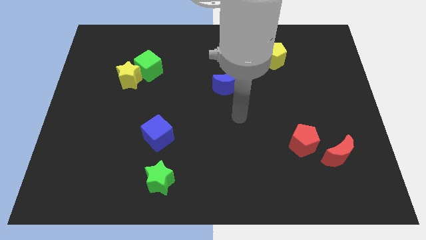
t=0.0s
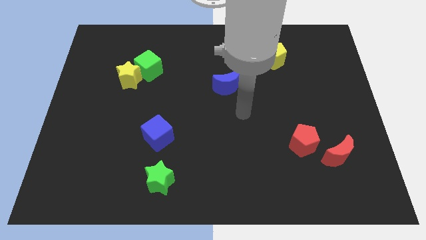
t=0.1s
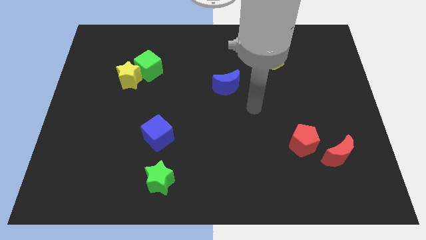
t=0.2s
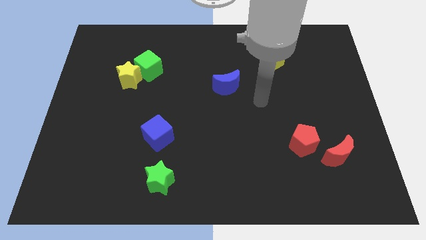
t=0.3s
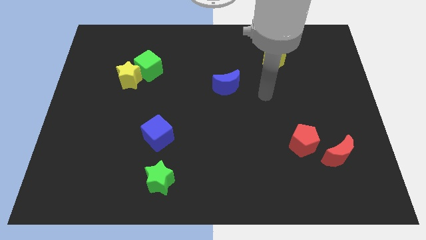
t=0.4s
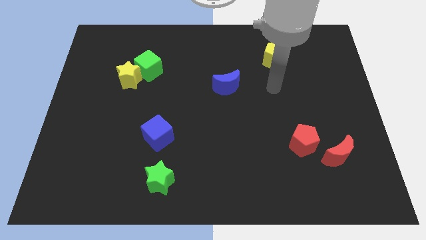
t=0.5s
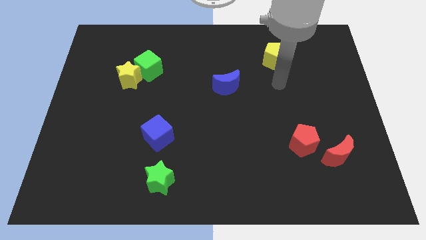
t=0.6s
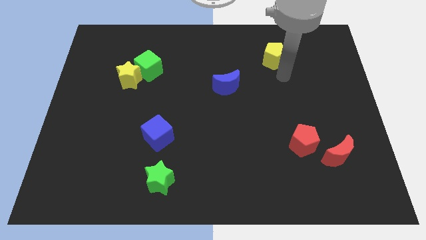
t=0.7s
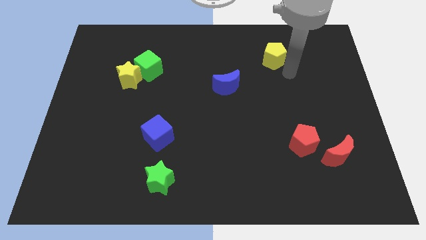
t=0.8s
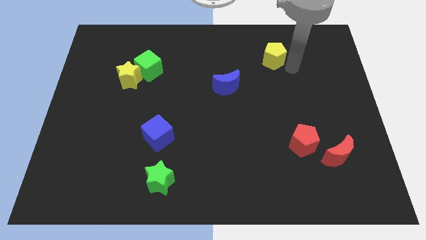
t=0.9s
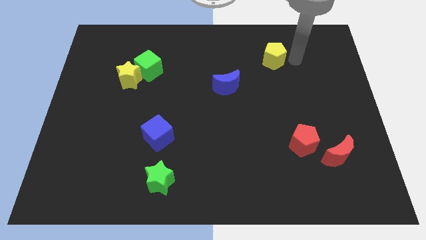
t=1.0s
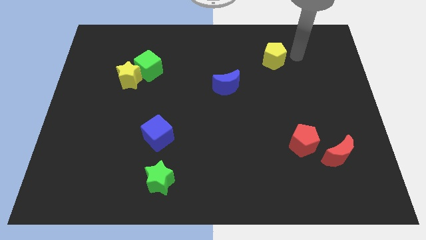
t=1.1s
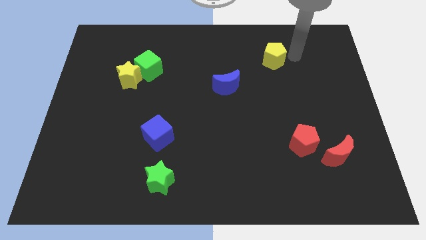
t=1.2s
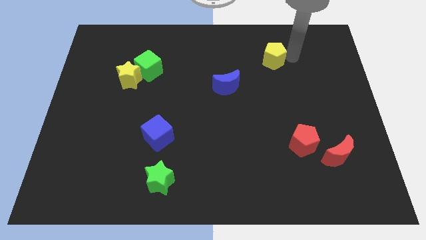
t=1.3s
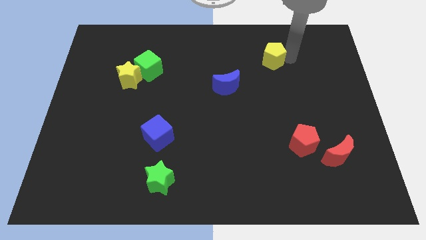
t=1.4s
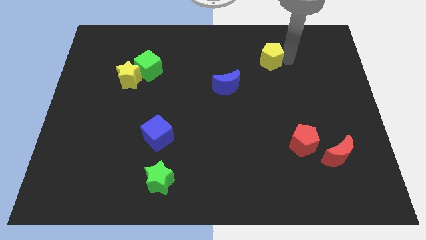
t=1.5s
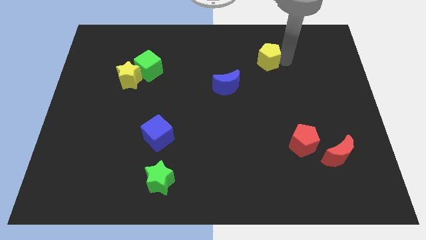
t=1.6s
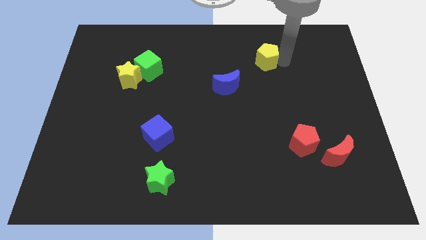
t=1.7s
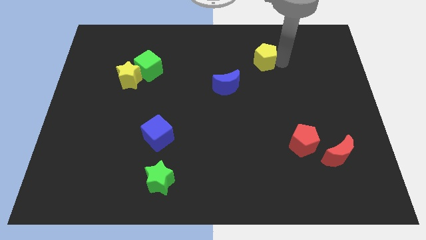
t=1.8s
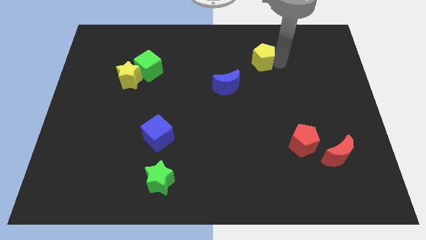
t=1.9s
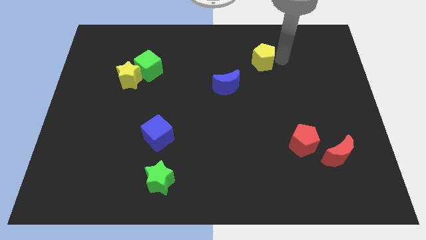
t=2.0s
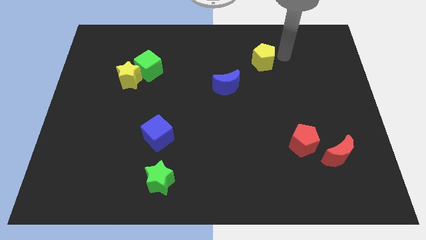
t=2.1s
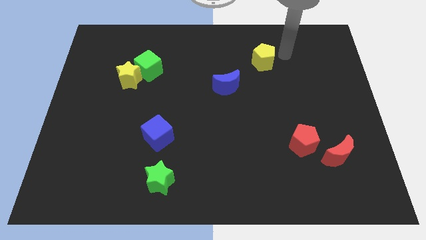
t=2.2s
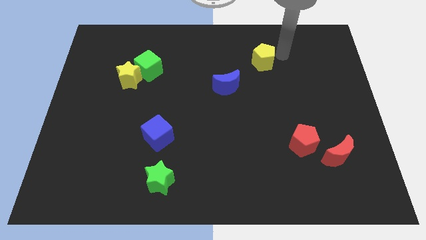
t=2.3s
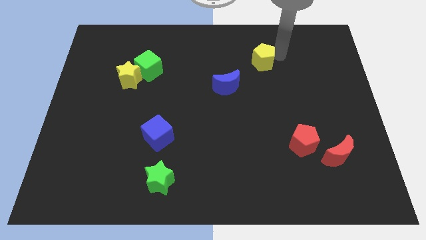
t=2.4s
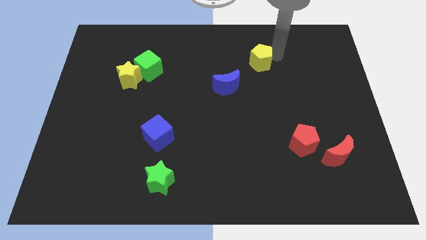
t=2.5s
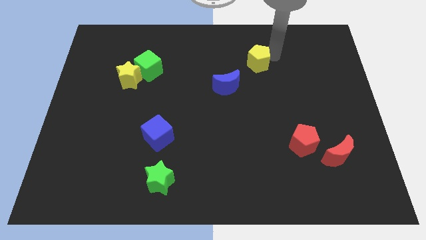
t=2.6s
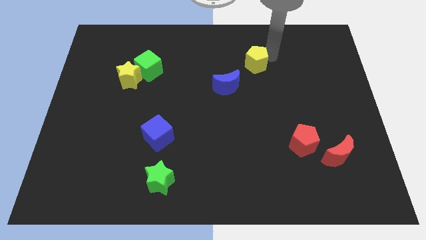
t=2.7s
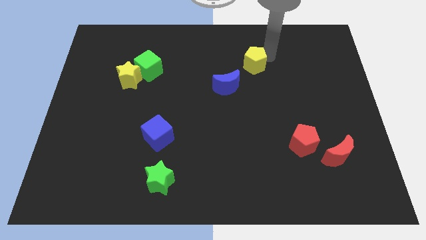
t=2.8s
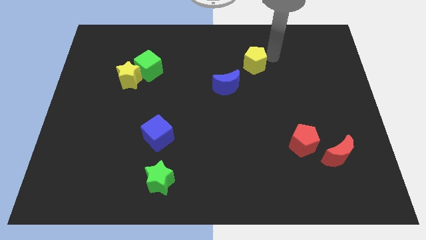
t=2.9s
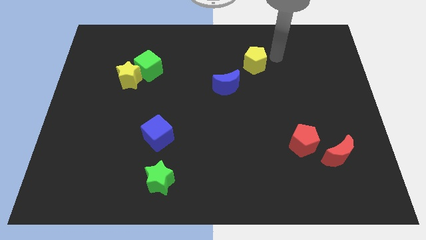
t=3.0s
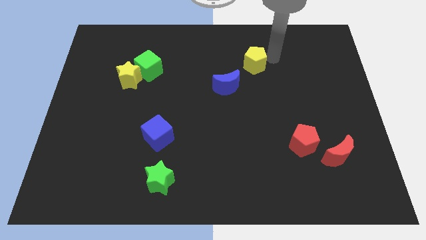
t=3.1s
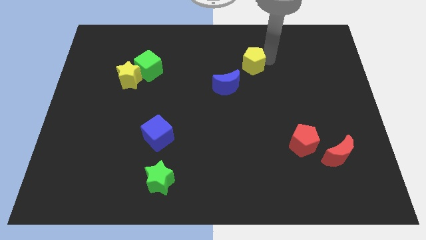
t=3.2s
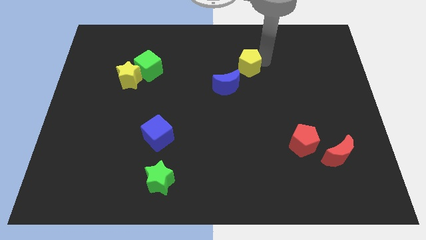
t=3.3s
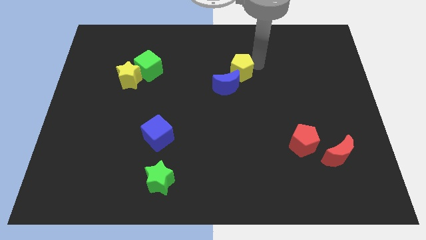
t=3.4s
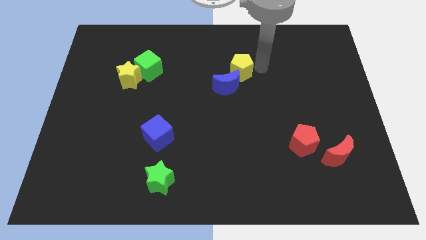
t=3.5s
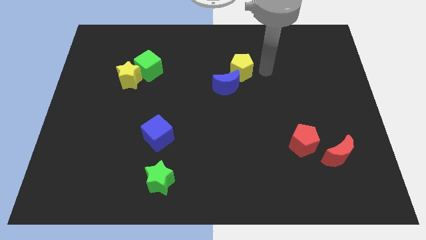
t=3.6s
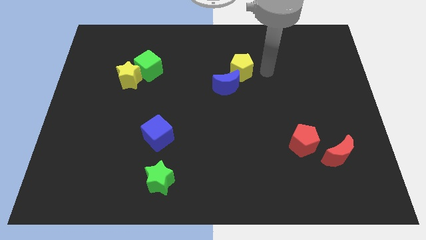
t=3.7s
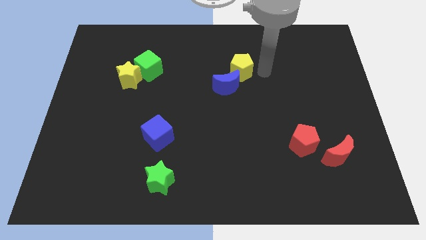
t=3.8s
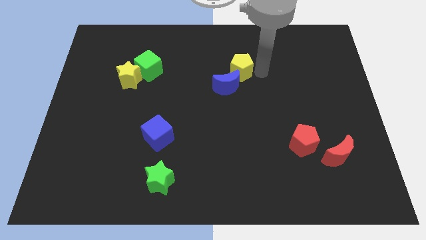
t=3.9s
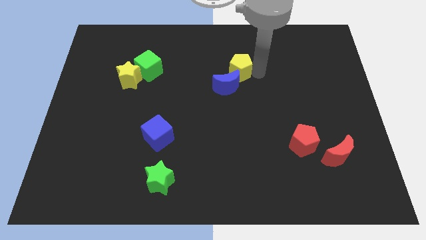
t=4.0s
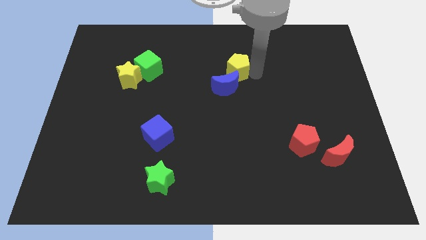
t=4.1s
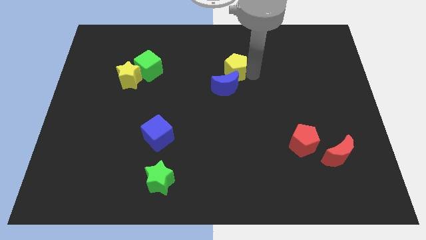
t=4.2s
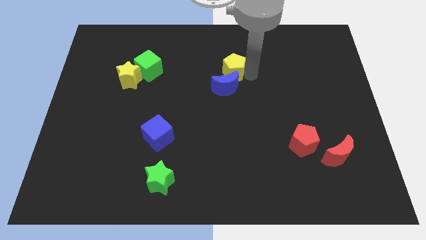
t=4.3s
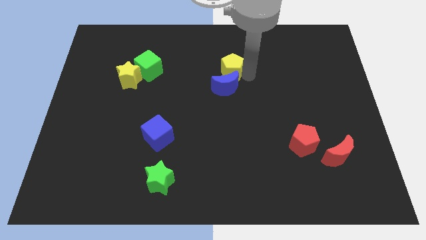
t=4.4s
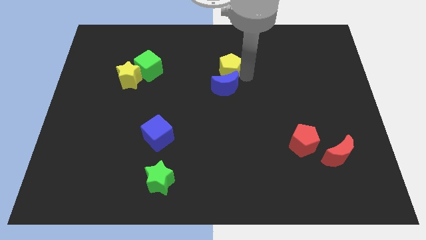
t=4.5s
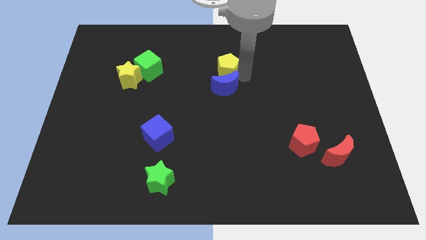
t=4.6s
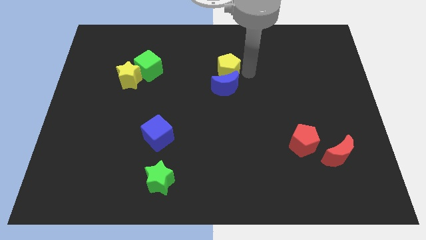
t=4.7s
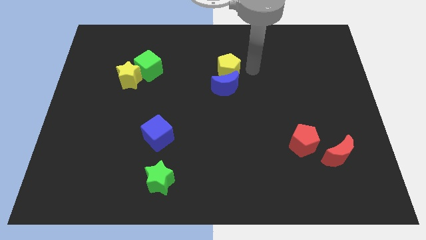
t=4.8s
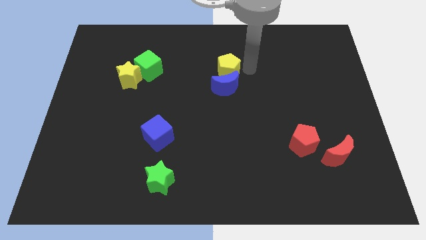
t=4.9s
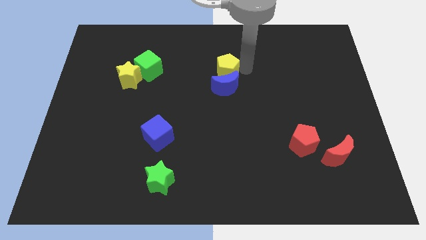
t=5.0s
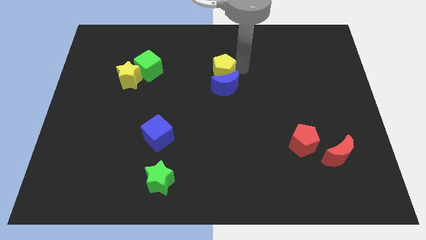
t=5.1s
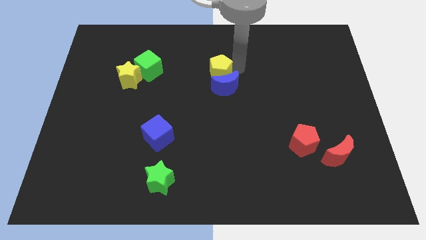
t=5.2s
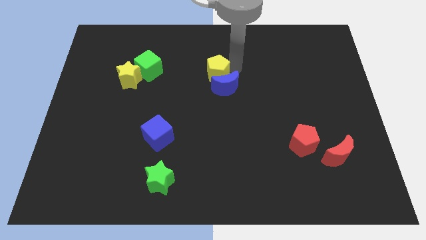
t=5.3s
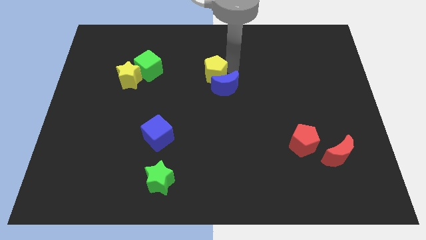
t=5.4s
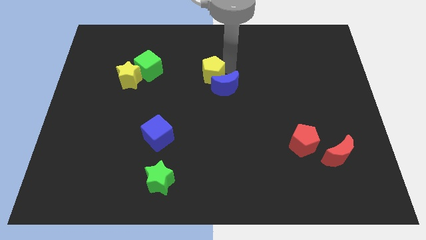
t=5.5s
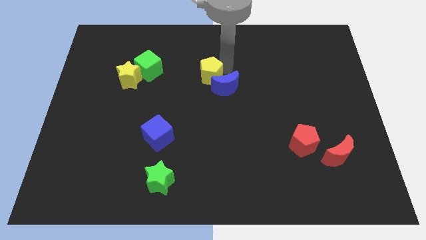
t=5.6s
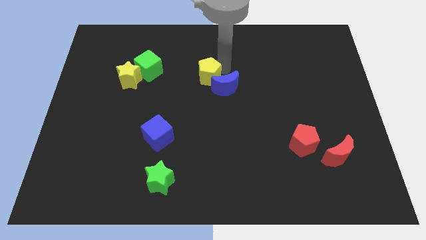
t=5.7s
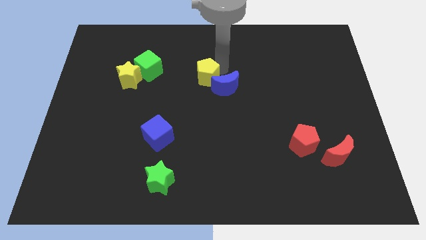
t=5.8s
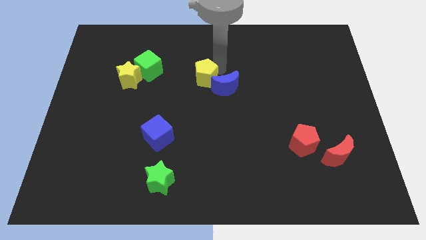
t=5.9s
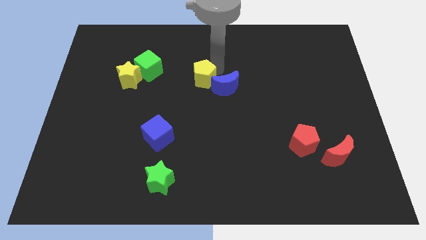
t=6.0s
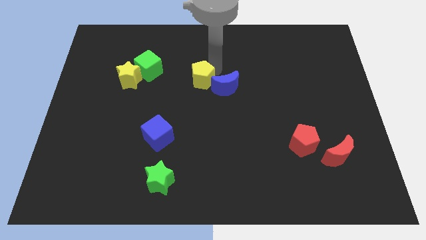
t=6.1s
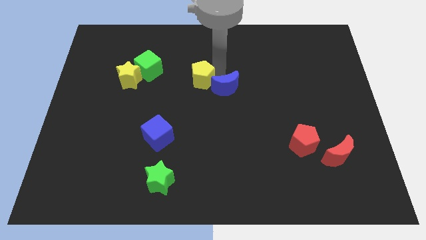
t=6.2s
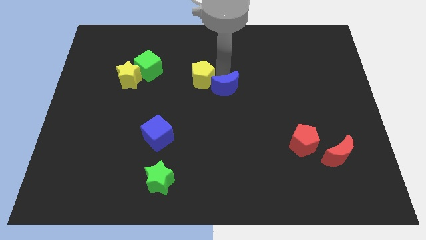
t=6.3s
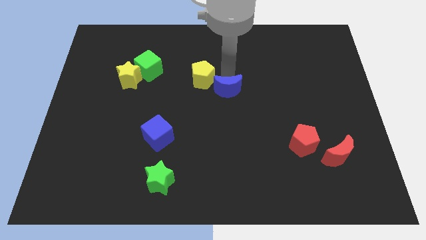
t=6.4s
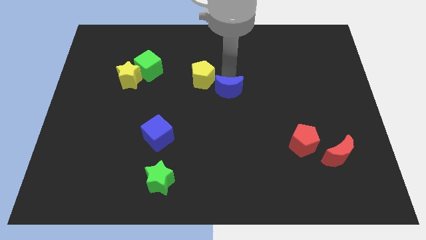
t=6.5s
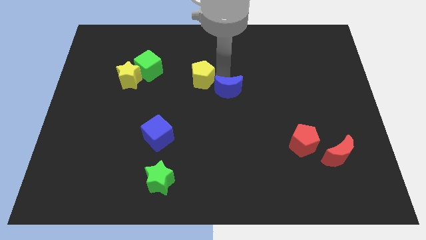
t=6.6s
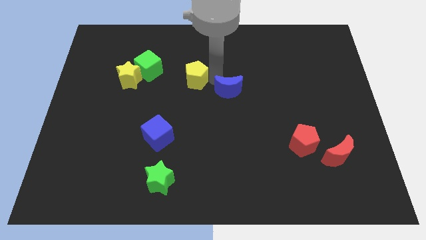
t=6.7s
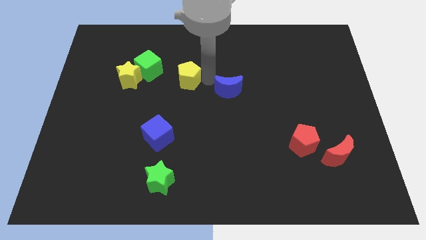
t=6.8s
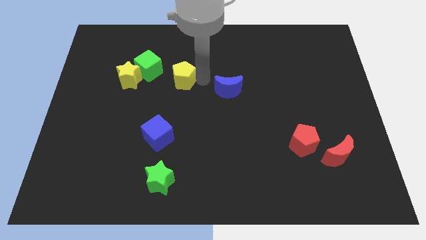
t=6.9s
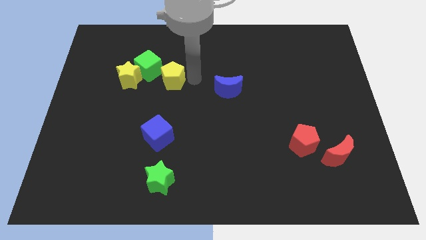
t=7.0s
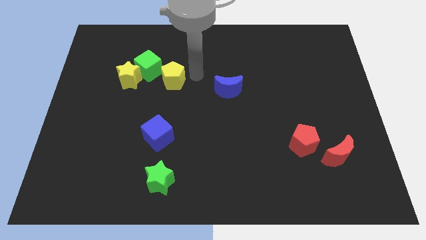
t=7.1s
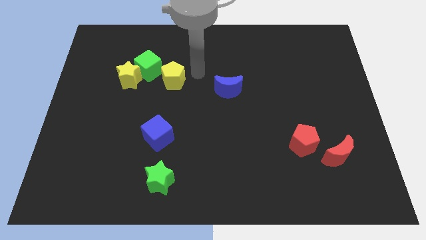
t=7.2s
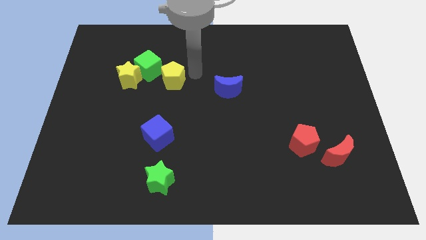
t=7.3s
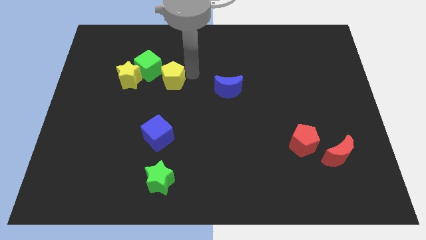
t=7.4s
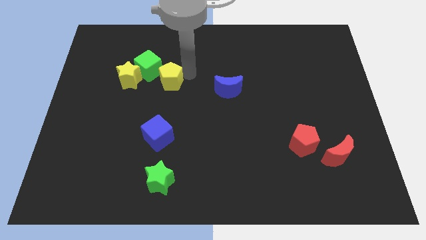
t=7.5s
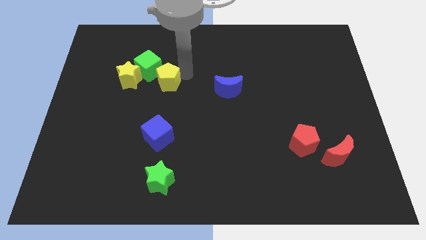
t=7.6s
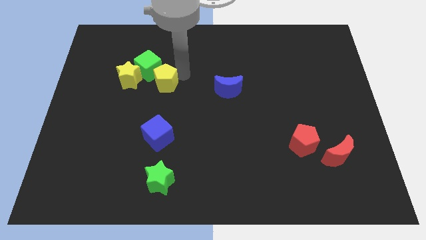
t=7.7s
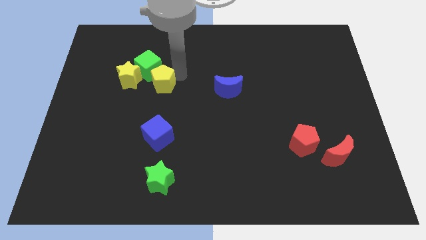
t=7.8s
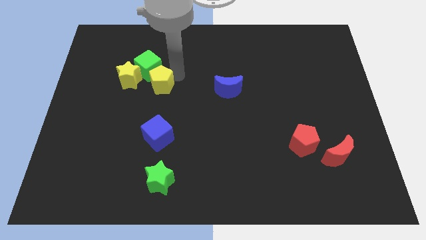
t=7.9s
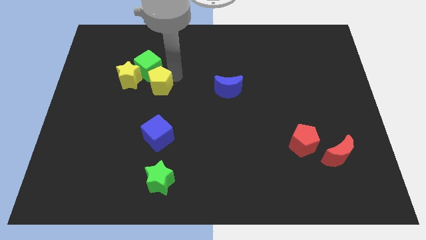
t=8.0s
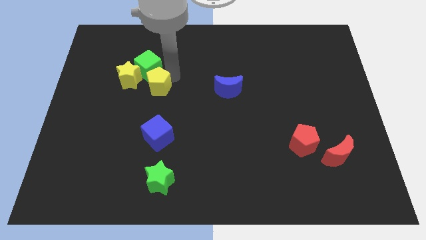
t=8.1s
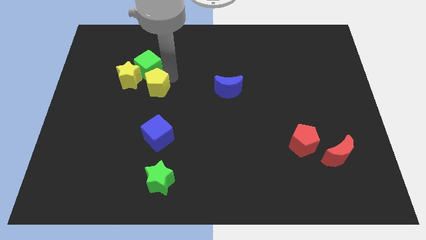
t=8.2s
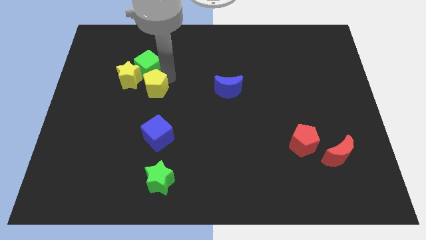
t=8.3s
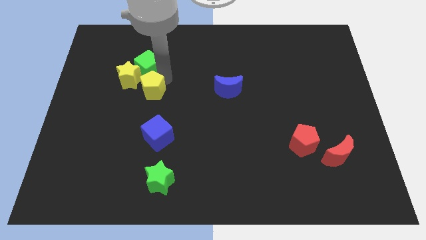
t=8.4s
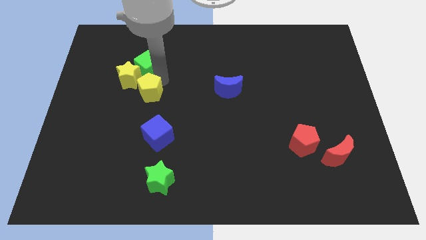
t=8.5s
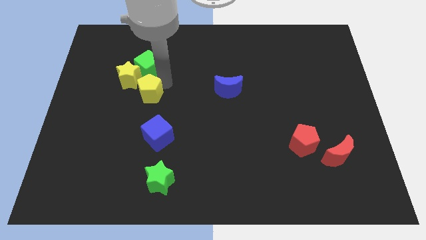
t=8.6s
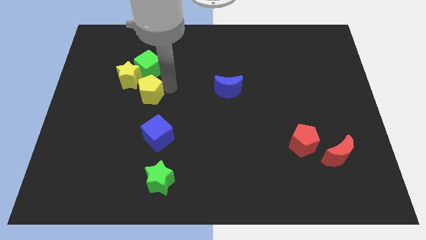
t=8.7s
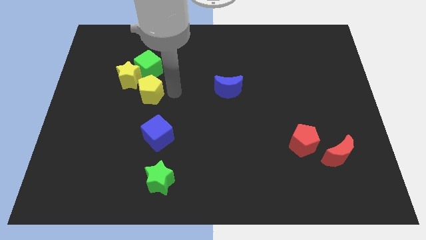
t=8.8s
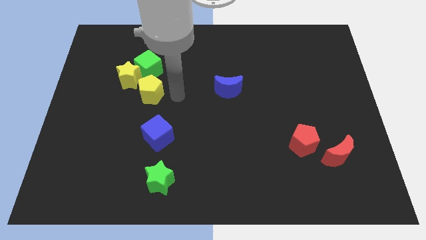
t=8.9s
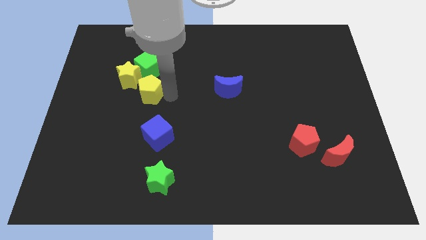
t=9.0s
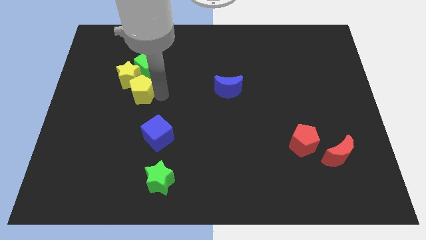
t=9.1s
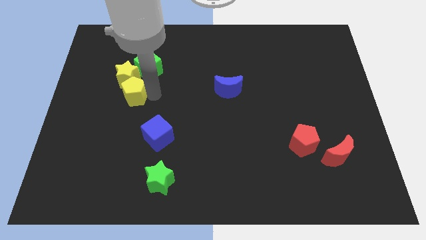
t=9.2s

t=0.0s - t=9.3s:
put the yellow pentagon diagonally down and to the left of the green cube
